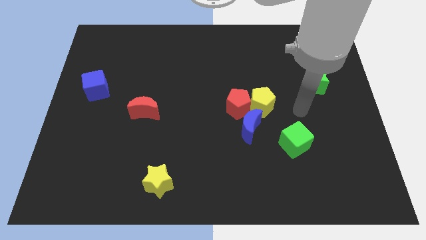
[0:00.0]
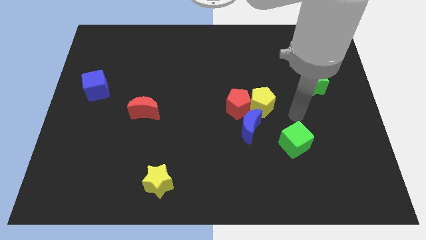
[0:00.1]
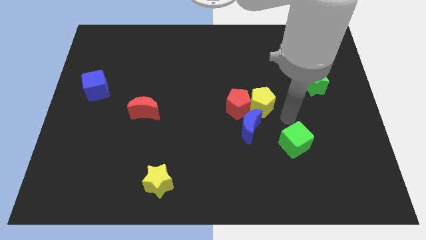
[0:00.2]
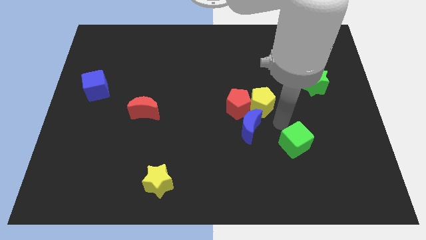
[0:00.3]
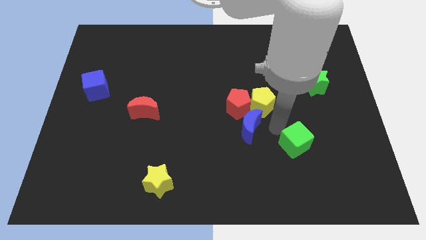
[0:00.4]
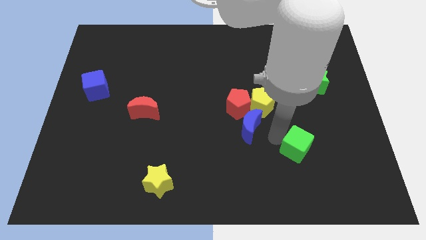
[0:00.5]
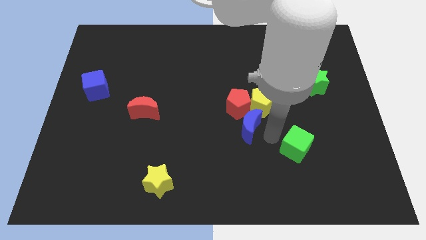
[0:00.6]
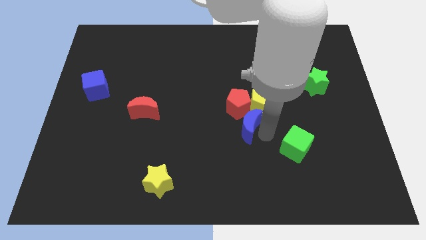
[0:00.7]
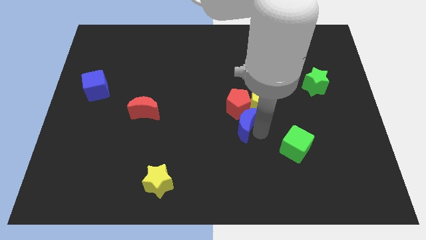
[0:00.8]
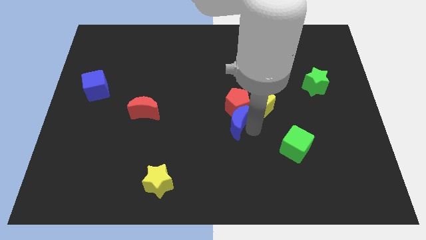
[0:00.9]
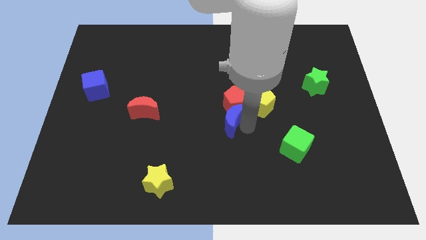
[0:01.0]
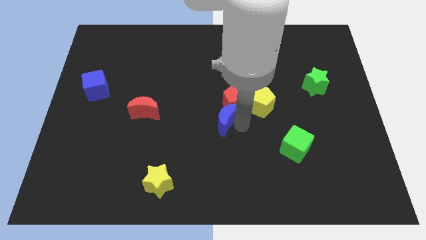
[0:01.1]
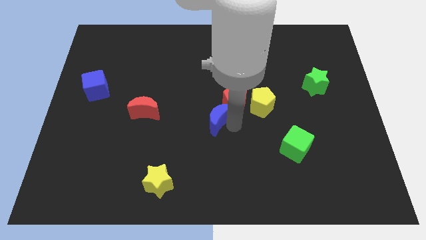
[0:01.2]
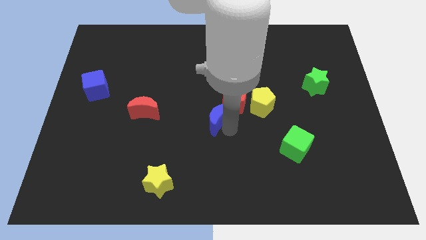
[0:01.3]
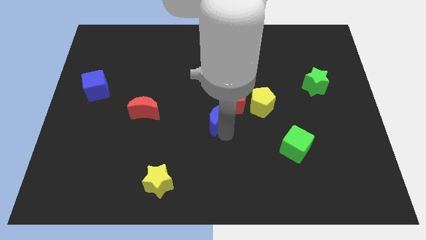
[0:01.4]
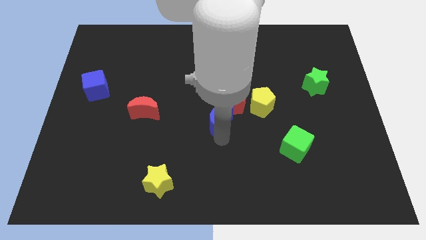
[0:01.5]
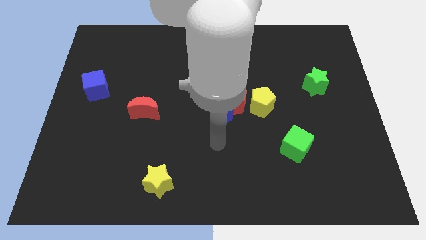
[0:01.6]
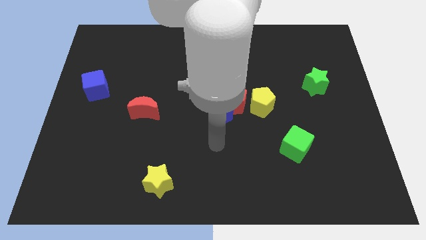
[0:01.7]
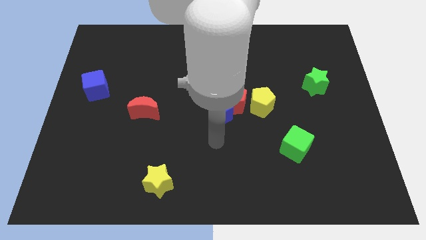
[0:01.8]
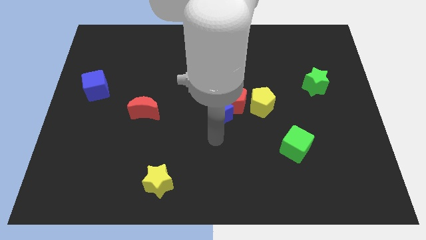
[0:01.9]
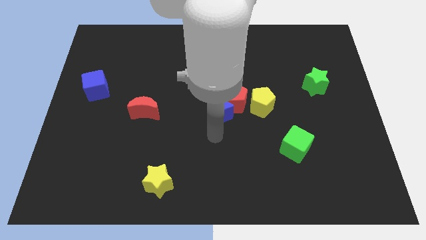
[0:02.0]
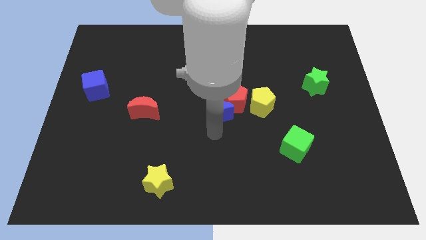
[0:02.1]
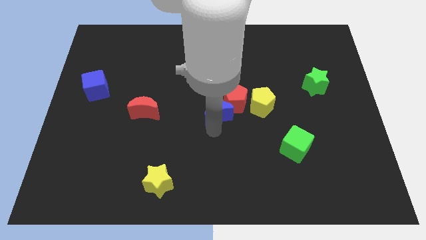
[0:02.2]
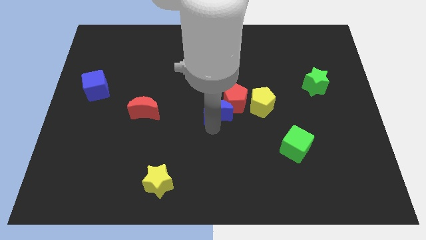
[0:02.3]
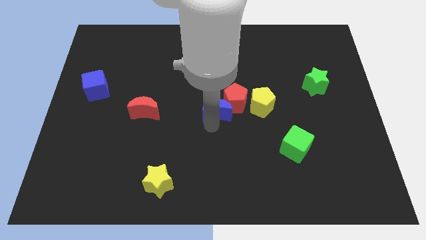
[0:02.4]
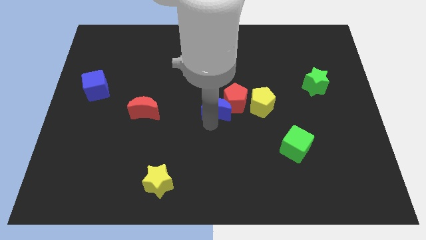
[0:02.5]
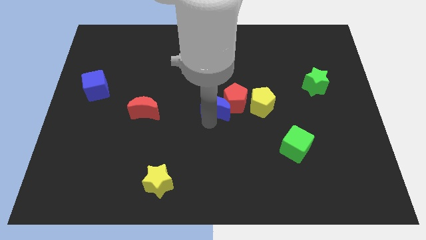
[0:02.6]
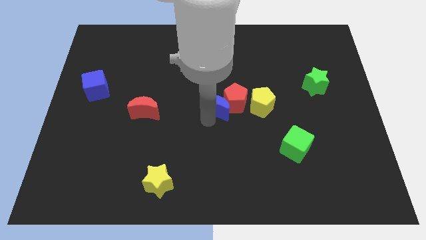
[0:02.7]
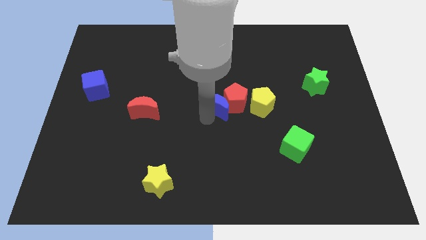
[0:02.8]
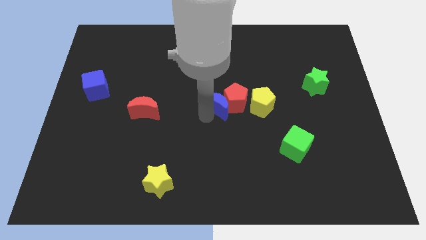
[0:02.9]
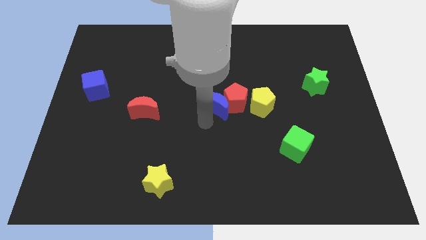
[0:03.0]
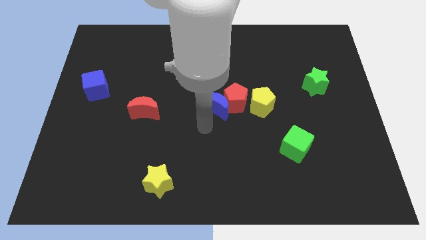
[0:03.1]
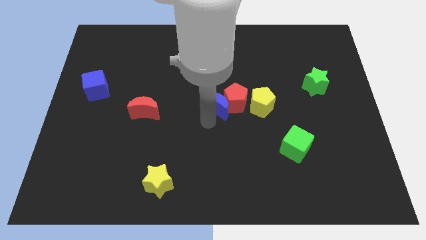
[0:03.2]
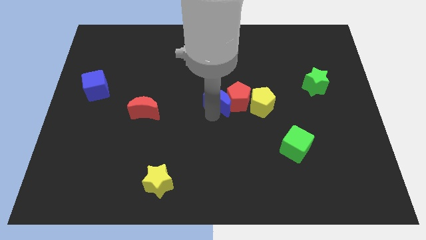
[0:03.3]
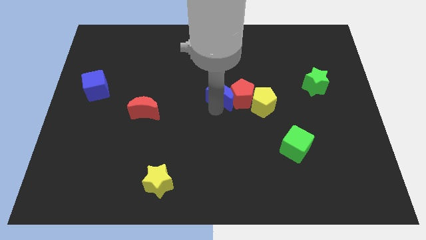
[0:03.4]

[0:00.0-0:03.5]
slide the blue moon up slightly

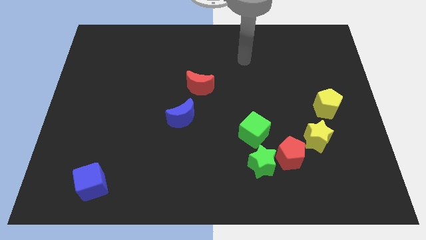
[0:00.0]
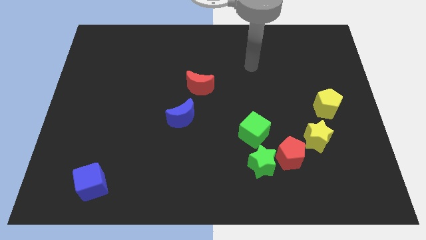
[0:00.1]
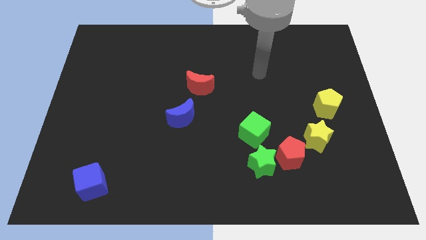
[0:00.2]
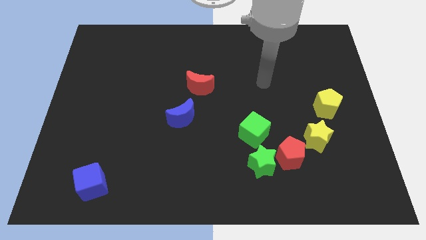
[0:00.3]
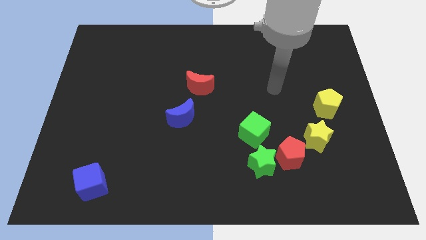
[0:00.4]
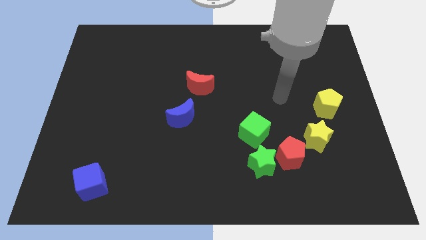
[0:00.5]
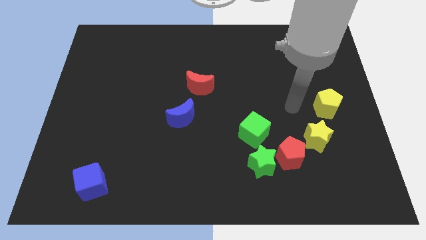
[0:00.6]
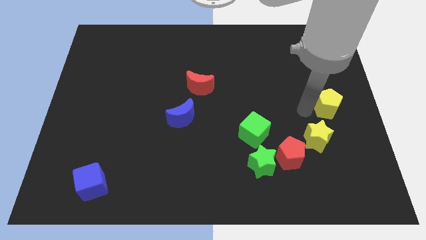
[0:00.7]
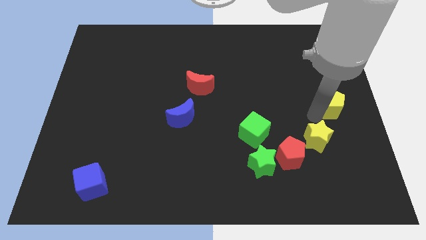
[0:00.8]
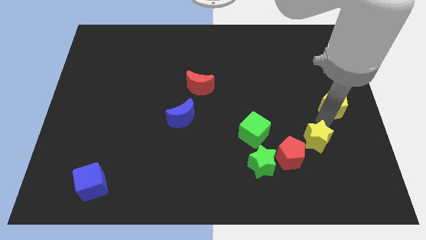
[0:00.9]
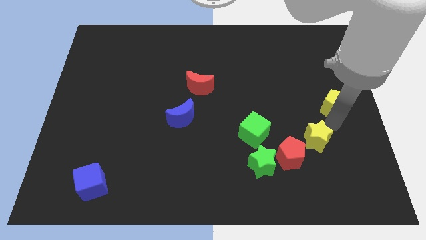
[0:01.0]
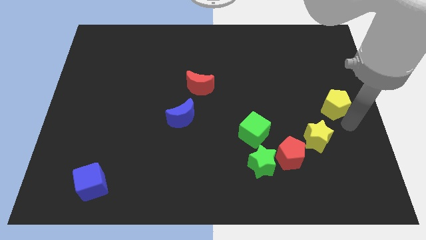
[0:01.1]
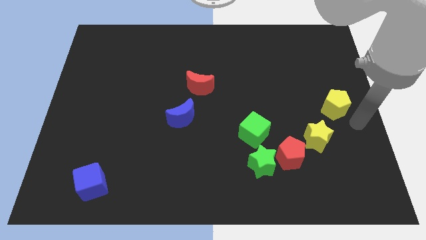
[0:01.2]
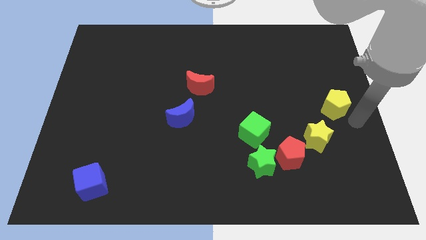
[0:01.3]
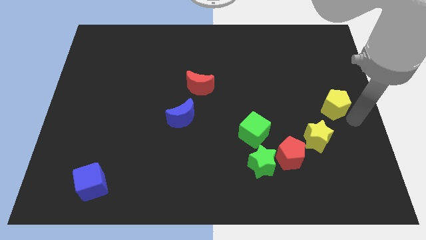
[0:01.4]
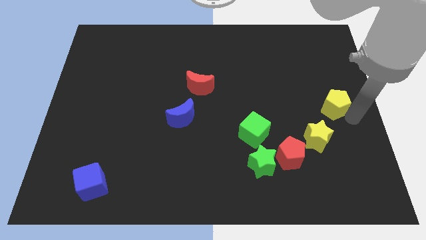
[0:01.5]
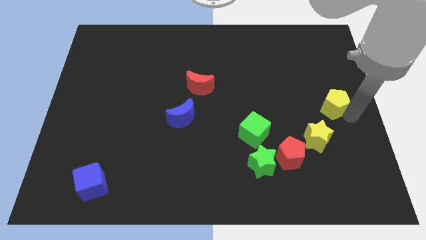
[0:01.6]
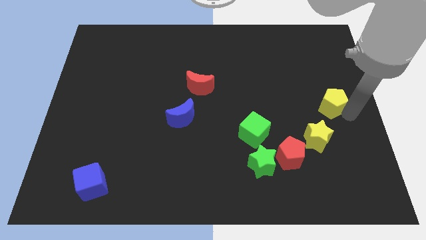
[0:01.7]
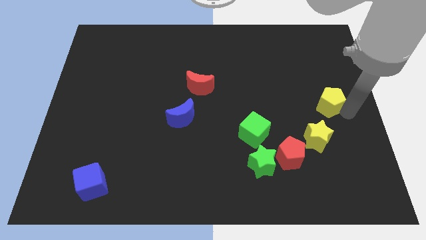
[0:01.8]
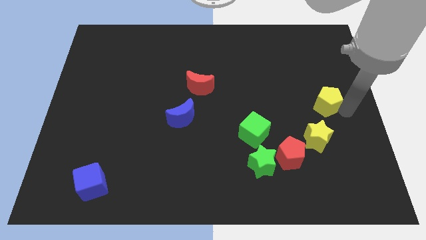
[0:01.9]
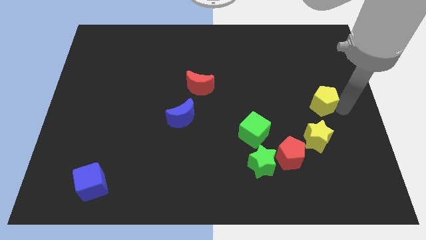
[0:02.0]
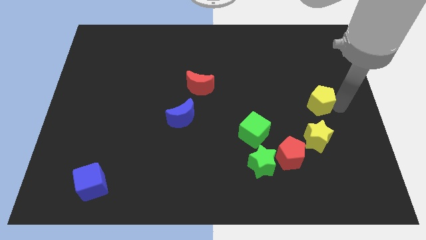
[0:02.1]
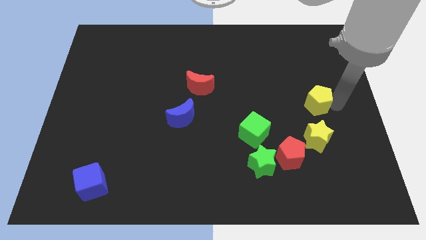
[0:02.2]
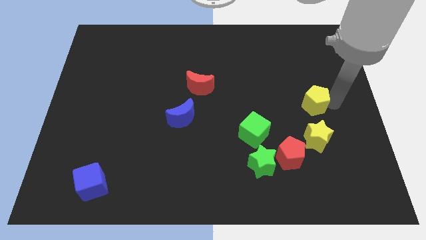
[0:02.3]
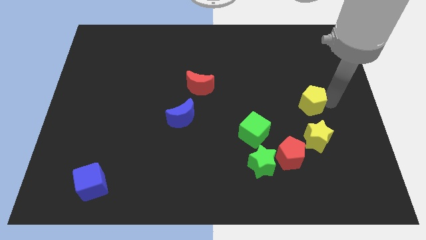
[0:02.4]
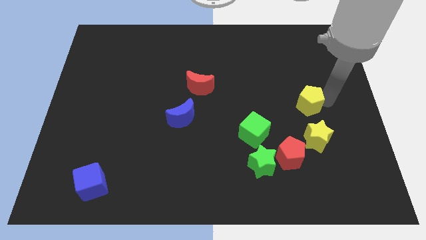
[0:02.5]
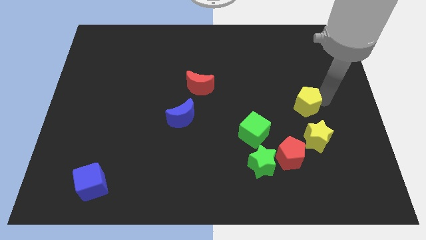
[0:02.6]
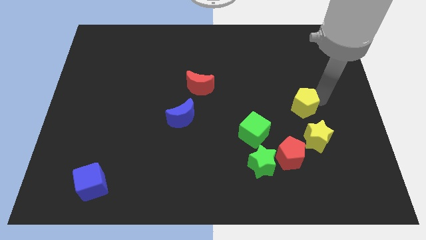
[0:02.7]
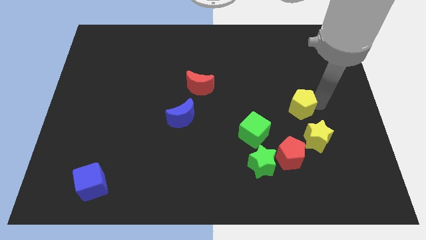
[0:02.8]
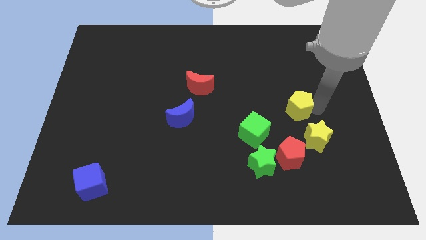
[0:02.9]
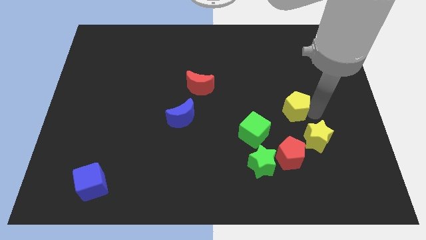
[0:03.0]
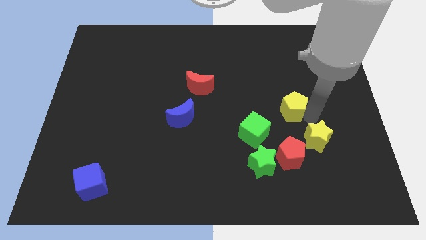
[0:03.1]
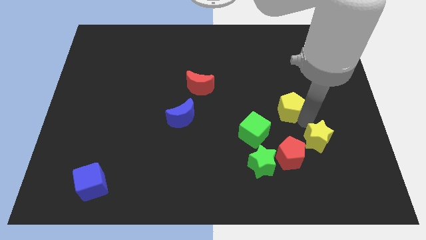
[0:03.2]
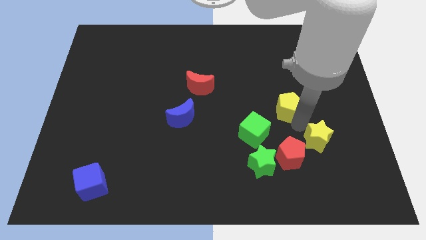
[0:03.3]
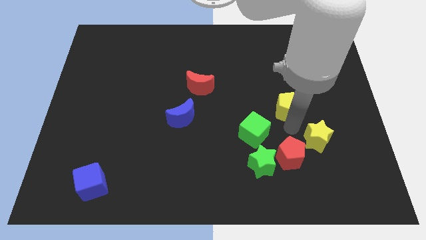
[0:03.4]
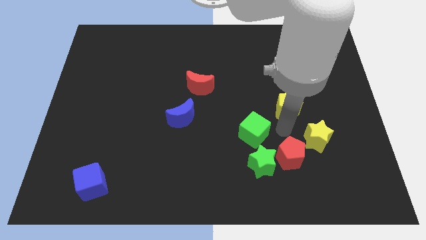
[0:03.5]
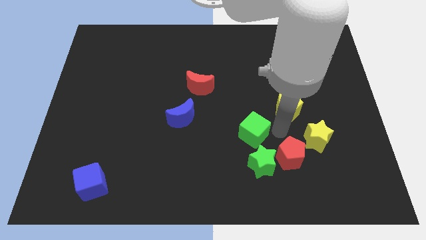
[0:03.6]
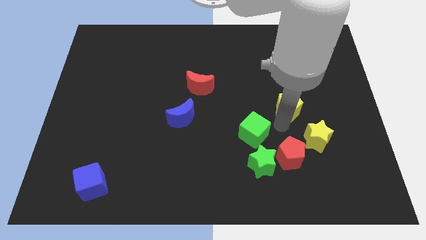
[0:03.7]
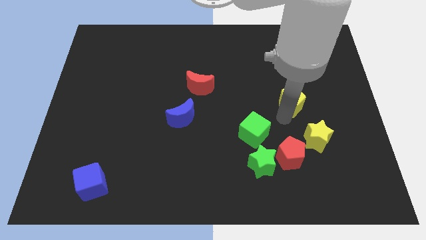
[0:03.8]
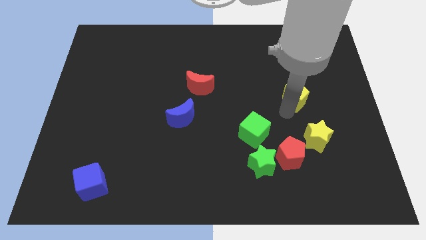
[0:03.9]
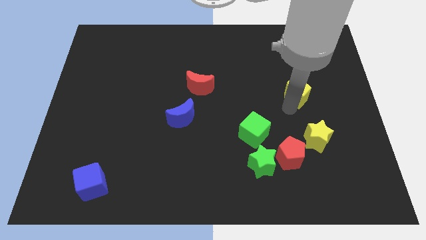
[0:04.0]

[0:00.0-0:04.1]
push the yellow pentagon upwards and left a little

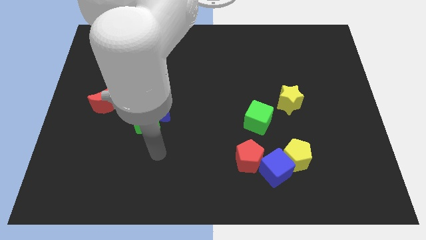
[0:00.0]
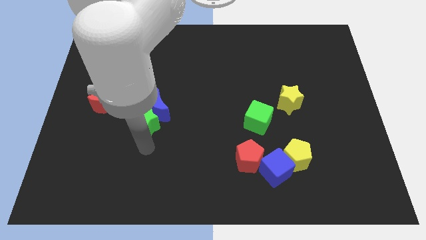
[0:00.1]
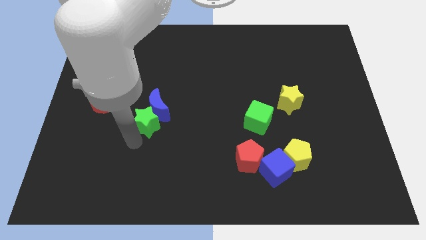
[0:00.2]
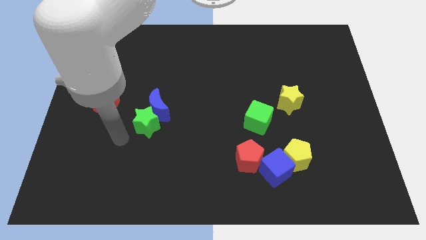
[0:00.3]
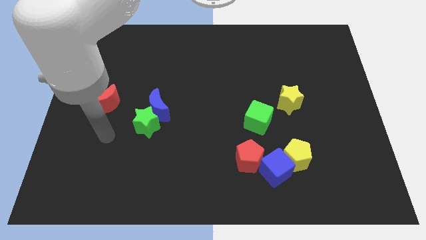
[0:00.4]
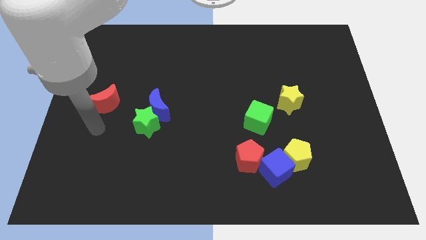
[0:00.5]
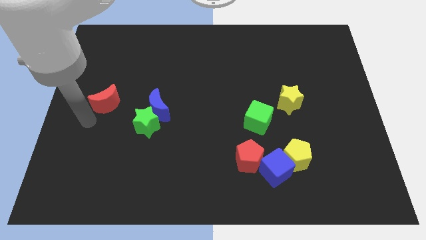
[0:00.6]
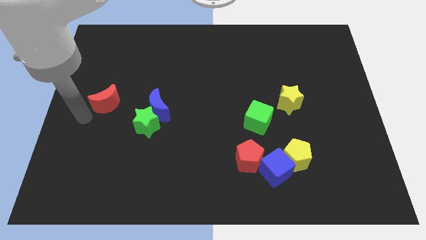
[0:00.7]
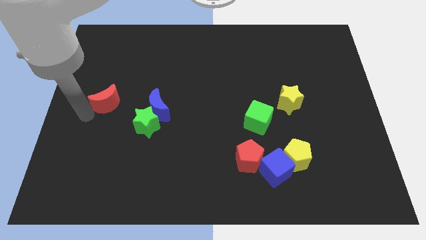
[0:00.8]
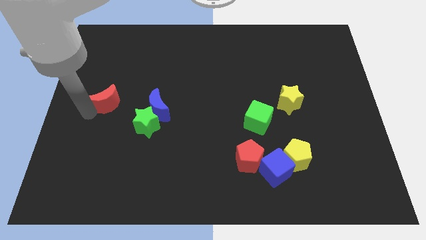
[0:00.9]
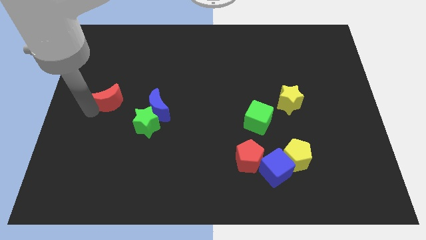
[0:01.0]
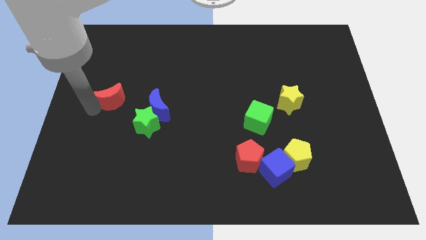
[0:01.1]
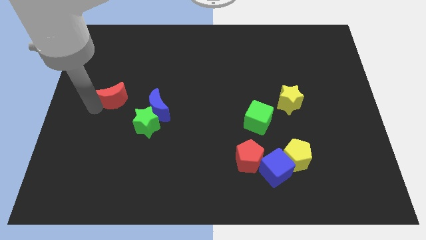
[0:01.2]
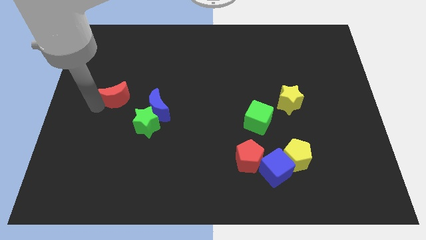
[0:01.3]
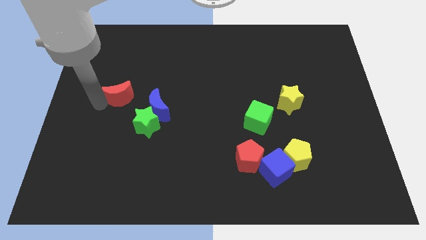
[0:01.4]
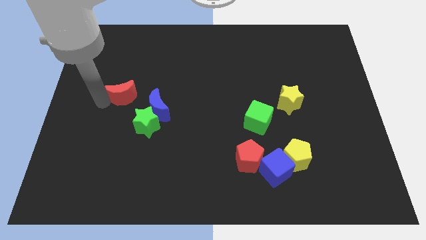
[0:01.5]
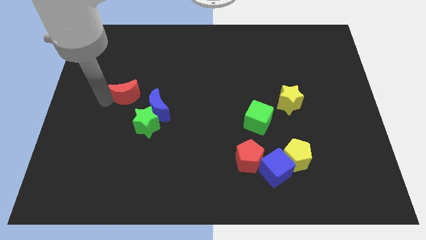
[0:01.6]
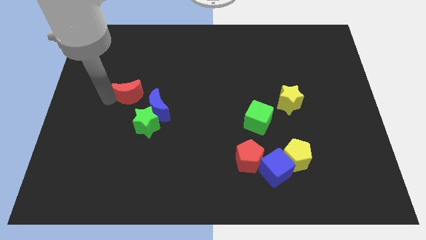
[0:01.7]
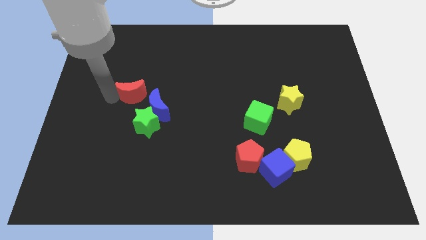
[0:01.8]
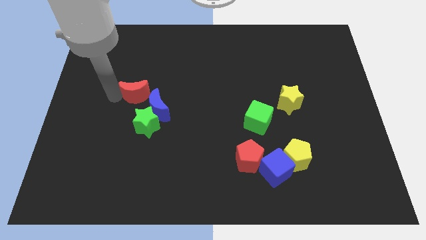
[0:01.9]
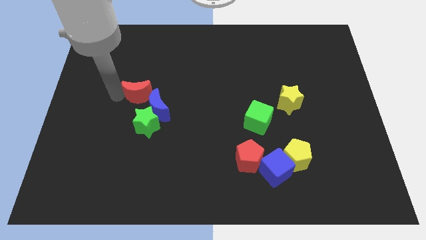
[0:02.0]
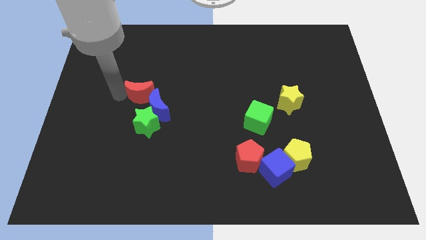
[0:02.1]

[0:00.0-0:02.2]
push the red moon upwards and then to the right a little
